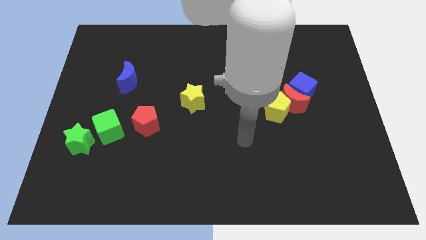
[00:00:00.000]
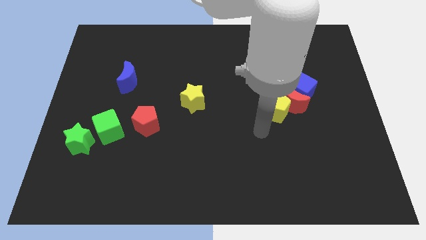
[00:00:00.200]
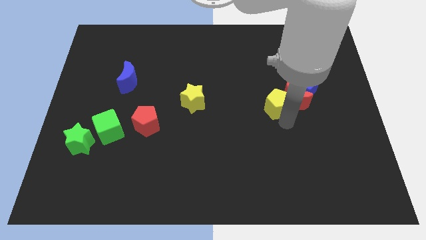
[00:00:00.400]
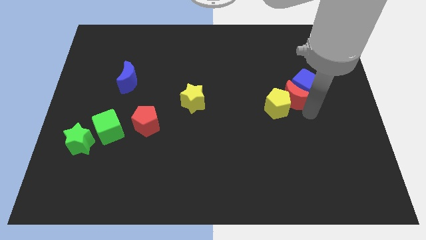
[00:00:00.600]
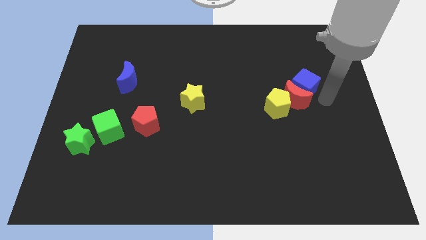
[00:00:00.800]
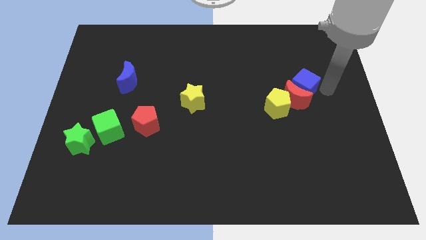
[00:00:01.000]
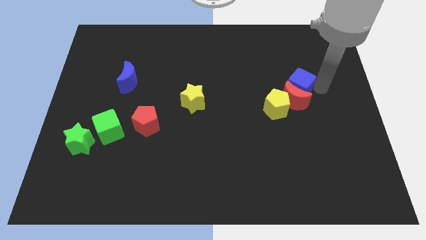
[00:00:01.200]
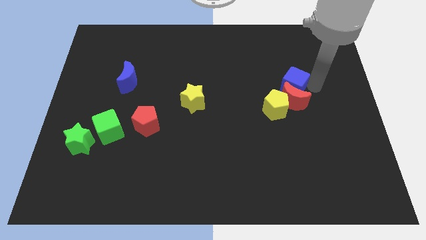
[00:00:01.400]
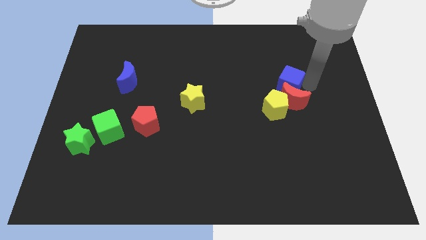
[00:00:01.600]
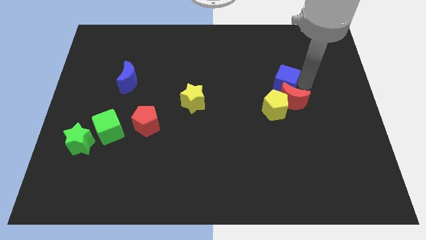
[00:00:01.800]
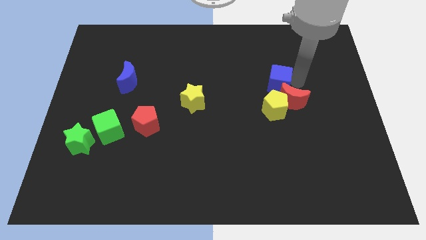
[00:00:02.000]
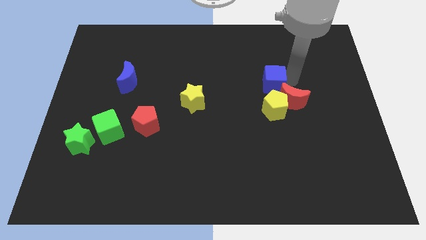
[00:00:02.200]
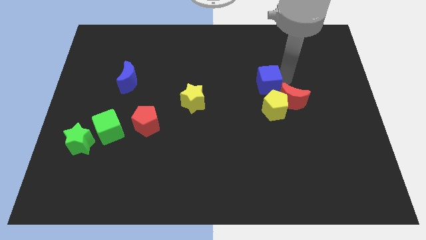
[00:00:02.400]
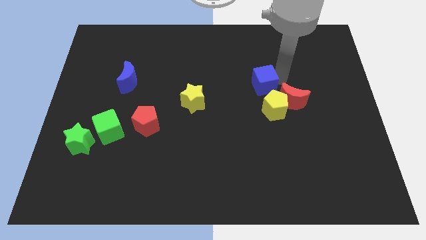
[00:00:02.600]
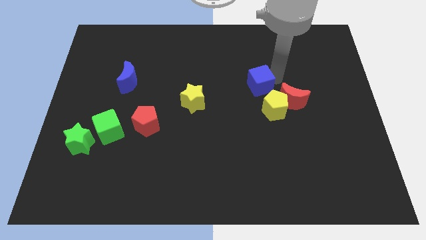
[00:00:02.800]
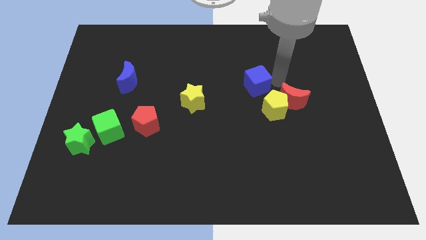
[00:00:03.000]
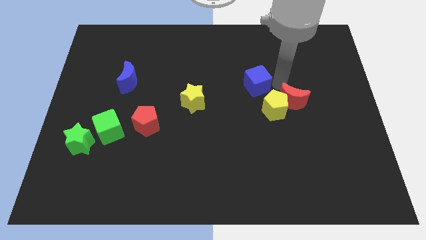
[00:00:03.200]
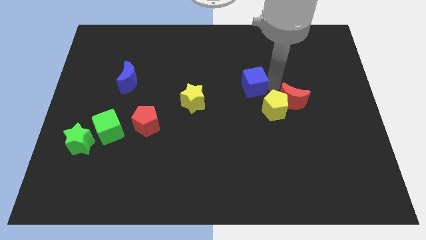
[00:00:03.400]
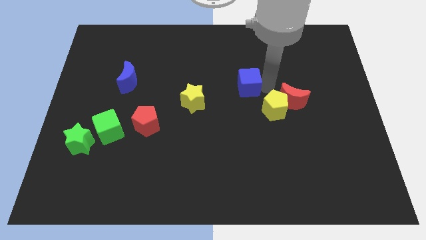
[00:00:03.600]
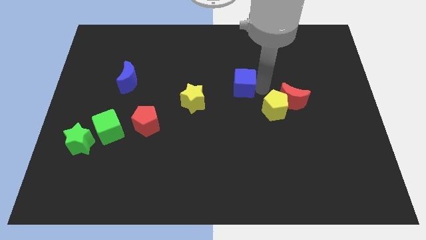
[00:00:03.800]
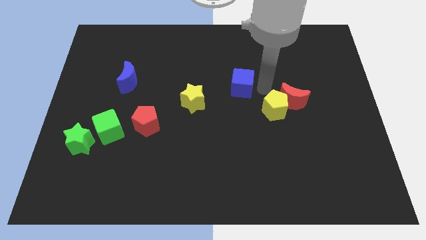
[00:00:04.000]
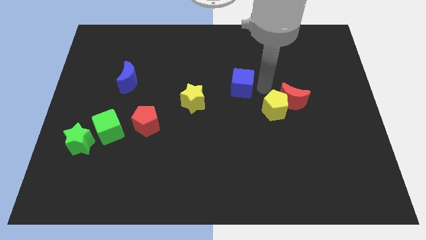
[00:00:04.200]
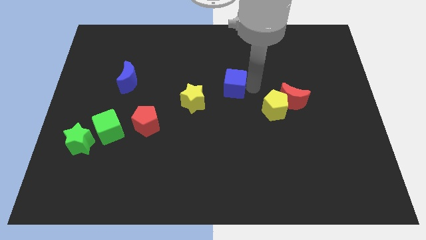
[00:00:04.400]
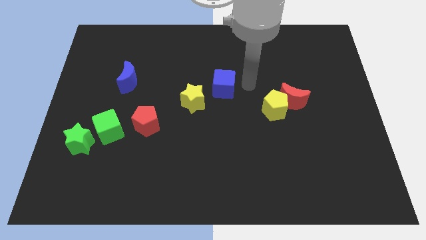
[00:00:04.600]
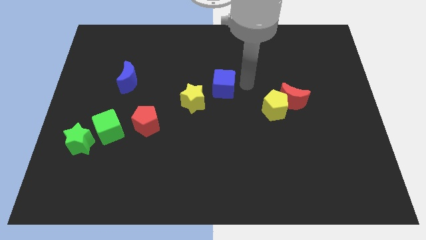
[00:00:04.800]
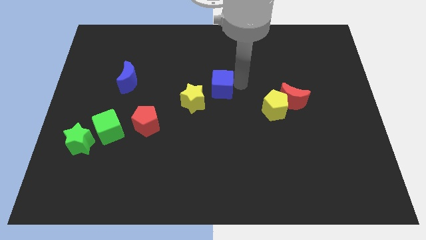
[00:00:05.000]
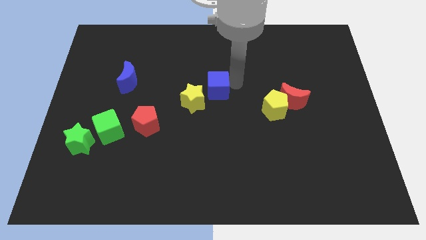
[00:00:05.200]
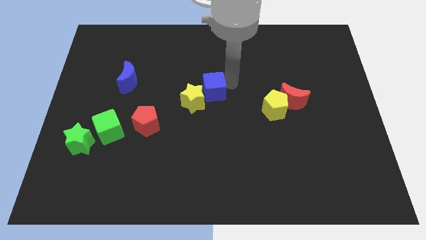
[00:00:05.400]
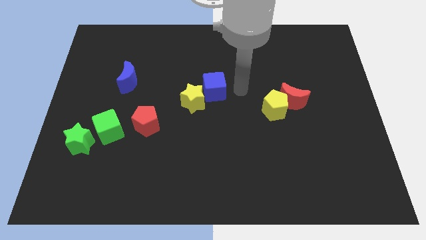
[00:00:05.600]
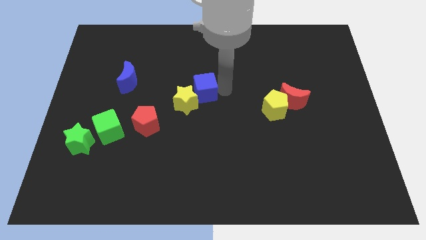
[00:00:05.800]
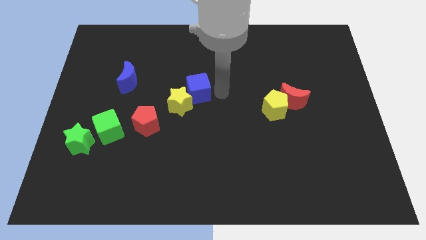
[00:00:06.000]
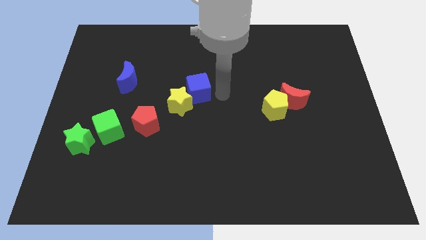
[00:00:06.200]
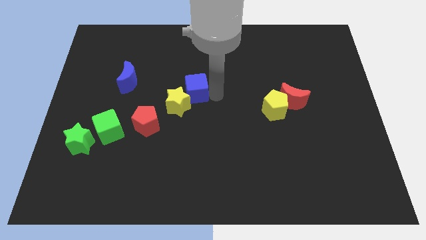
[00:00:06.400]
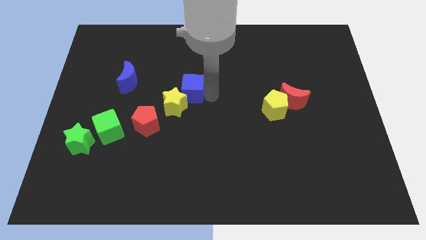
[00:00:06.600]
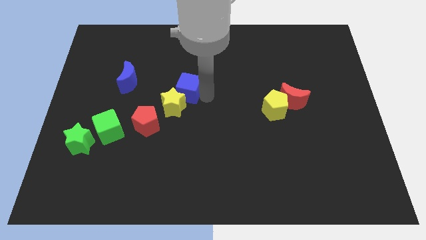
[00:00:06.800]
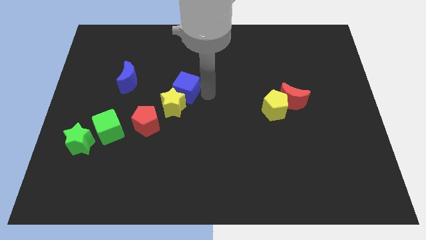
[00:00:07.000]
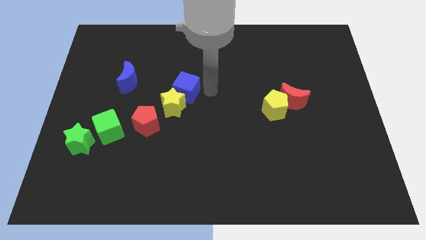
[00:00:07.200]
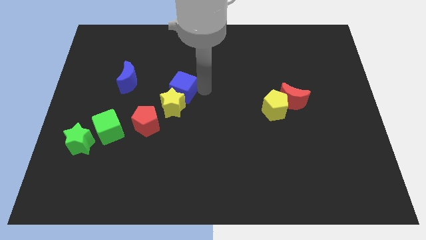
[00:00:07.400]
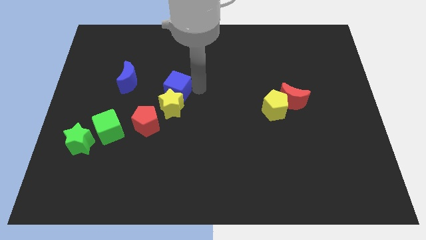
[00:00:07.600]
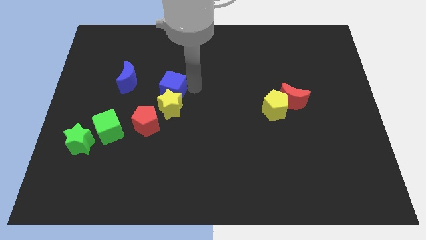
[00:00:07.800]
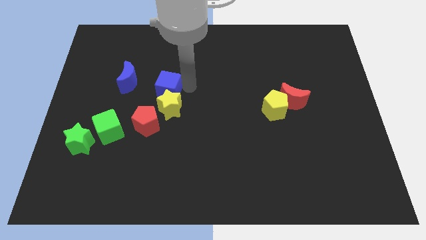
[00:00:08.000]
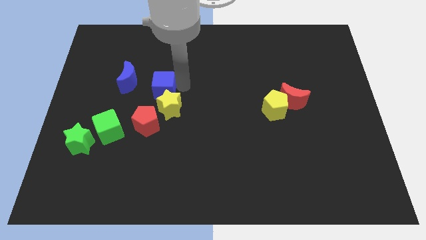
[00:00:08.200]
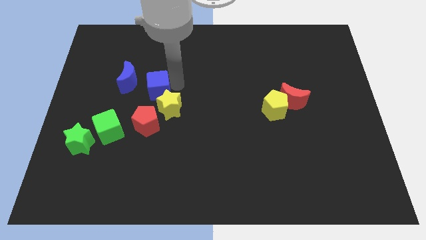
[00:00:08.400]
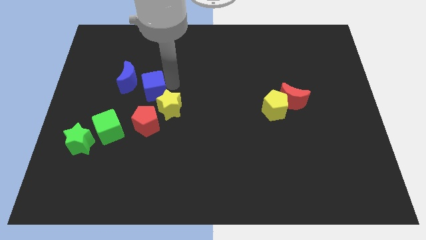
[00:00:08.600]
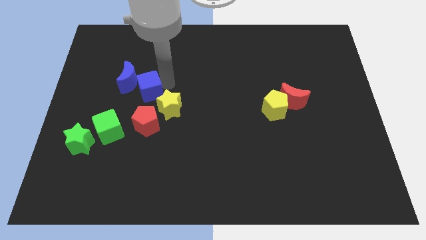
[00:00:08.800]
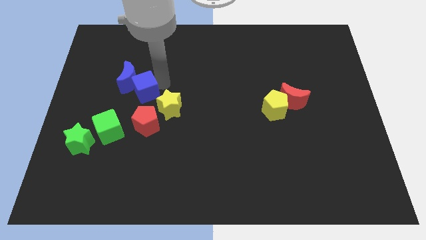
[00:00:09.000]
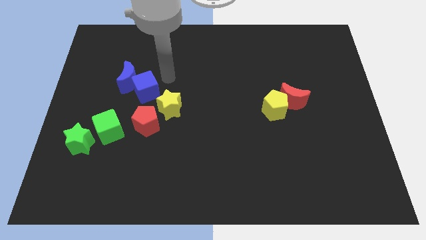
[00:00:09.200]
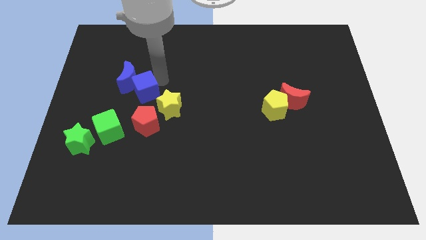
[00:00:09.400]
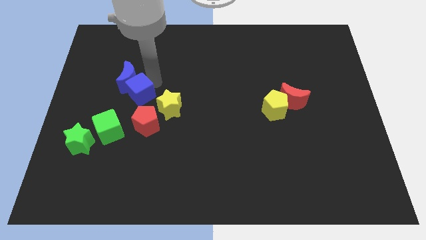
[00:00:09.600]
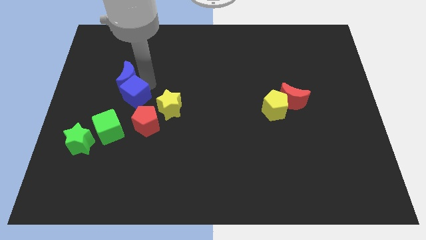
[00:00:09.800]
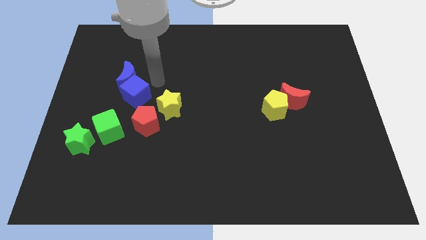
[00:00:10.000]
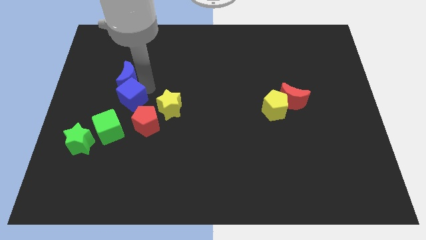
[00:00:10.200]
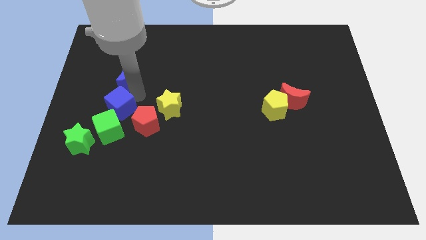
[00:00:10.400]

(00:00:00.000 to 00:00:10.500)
put the blue cube just left of the red pentagon

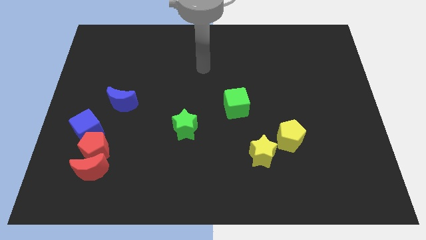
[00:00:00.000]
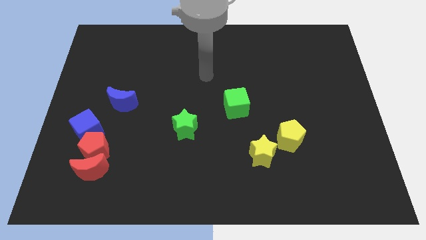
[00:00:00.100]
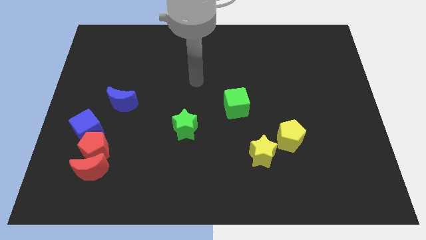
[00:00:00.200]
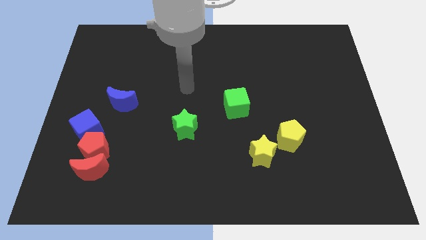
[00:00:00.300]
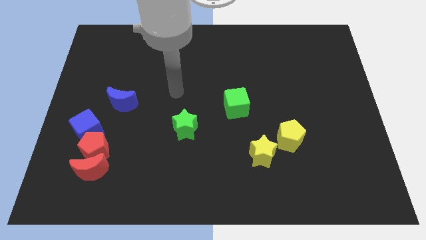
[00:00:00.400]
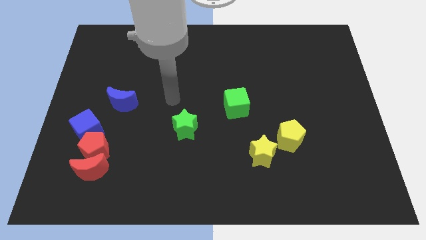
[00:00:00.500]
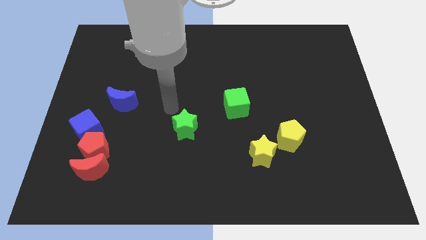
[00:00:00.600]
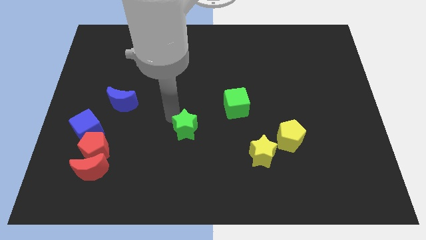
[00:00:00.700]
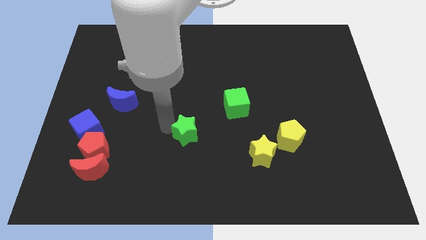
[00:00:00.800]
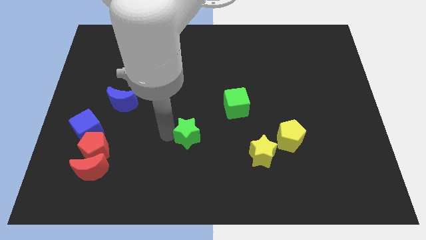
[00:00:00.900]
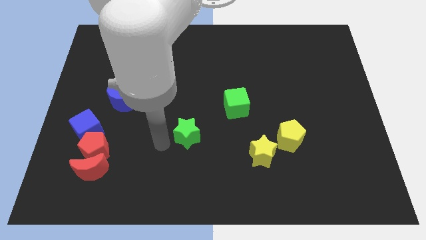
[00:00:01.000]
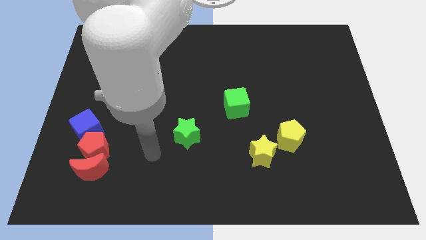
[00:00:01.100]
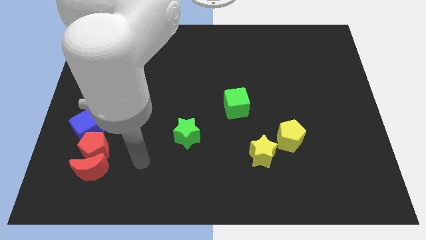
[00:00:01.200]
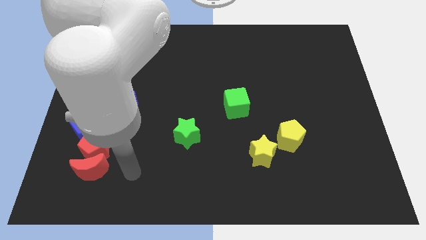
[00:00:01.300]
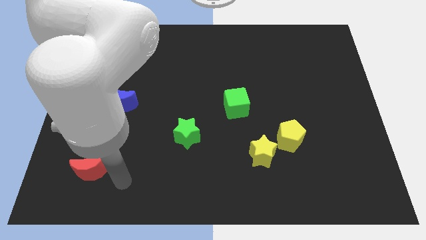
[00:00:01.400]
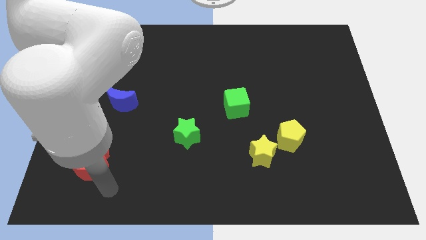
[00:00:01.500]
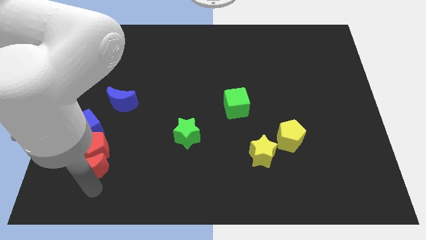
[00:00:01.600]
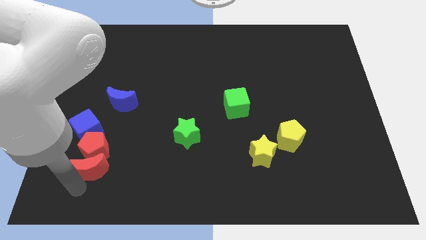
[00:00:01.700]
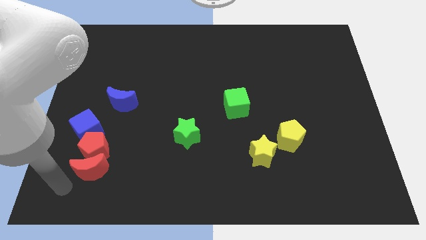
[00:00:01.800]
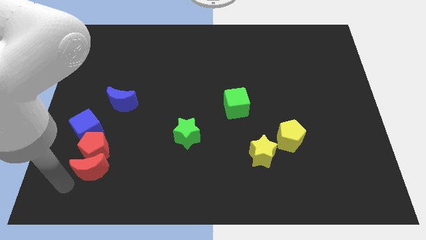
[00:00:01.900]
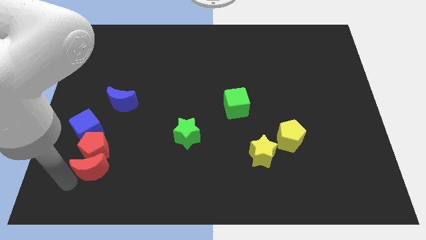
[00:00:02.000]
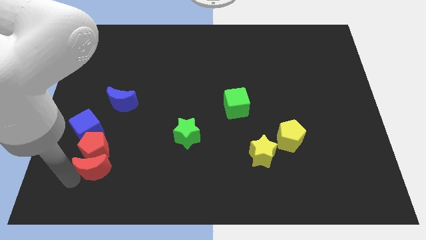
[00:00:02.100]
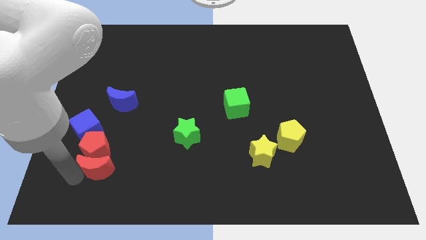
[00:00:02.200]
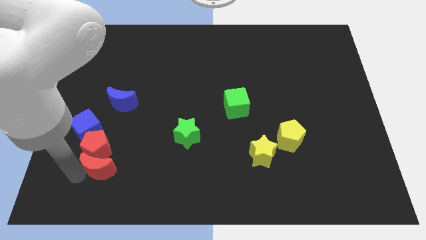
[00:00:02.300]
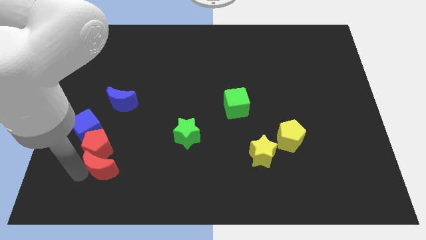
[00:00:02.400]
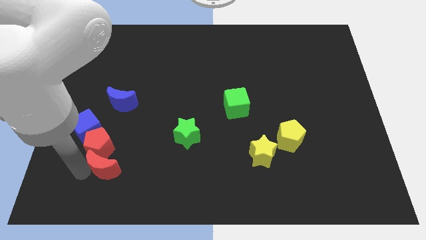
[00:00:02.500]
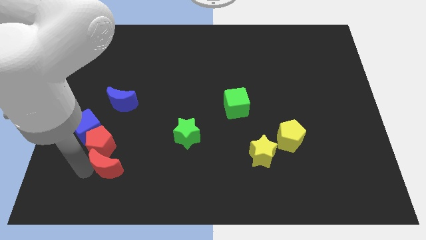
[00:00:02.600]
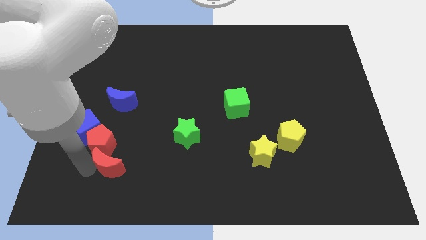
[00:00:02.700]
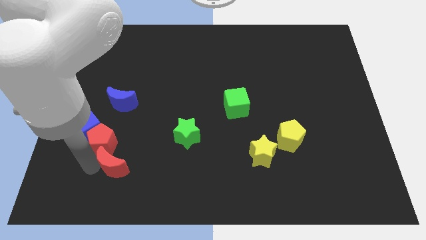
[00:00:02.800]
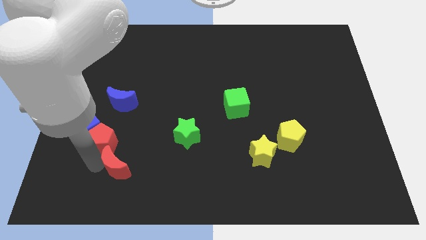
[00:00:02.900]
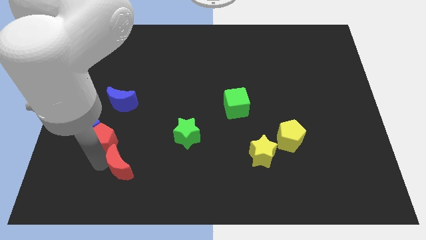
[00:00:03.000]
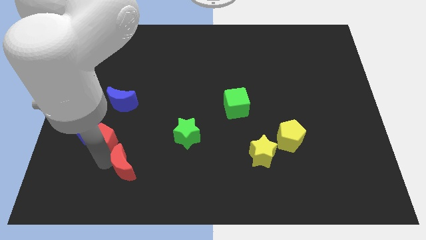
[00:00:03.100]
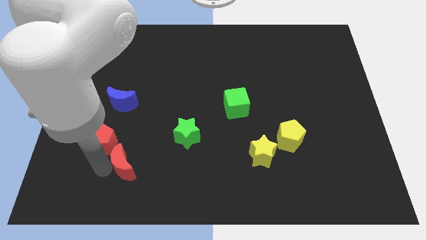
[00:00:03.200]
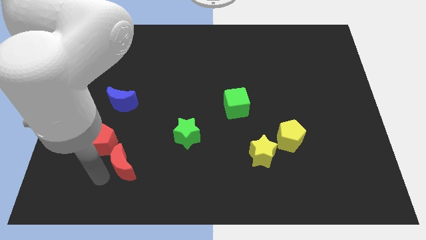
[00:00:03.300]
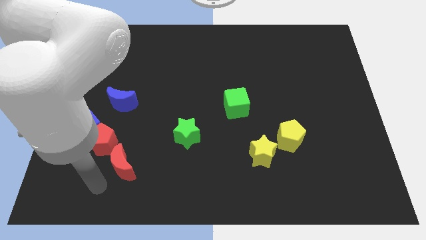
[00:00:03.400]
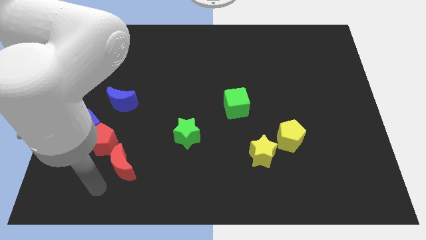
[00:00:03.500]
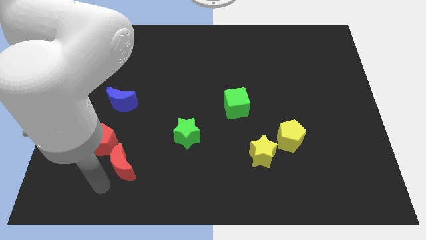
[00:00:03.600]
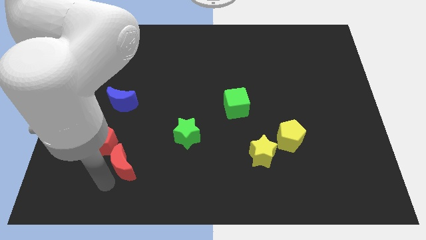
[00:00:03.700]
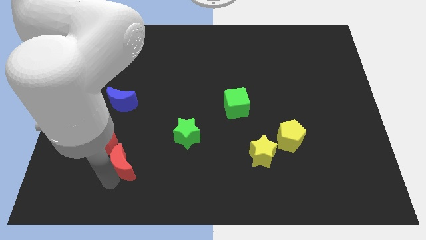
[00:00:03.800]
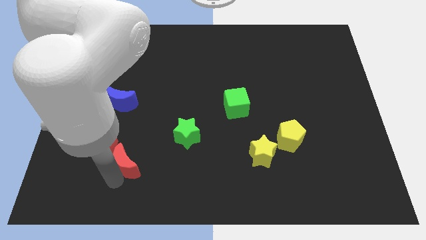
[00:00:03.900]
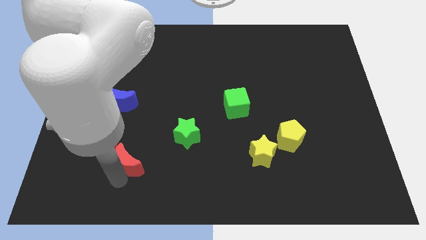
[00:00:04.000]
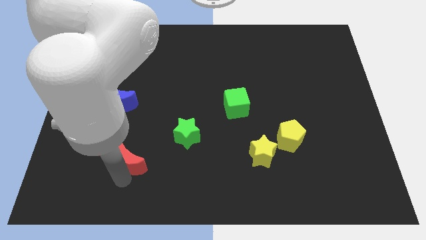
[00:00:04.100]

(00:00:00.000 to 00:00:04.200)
move the red moon right of the red pentagon
